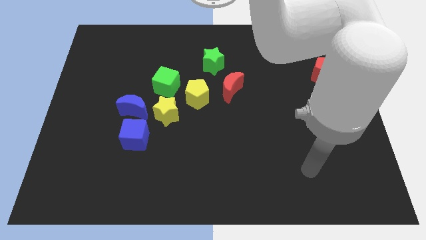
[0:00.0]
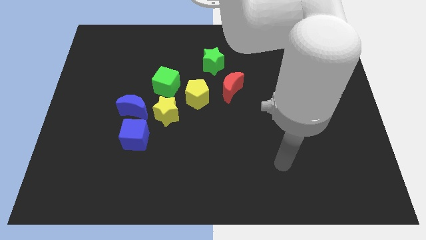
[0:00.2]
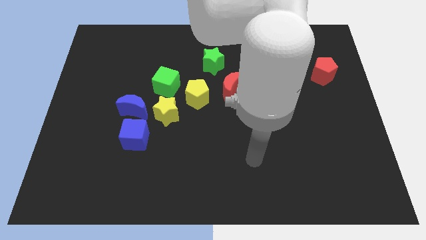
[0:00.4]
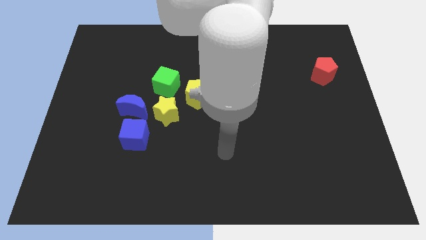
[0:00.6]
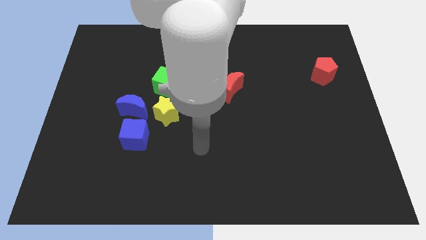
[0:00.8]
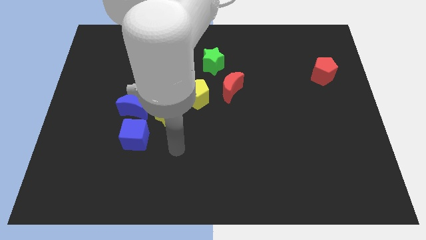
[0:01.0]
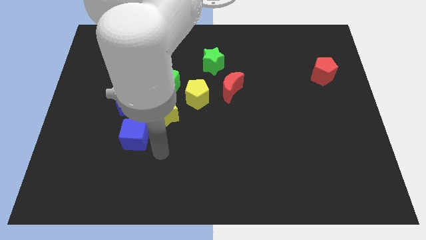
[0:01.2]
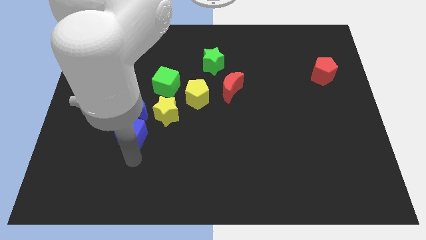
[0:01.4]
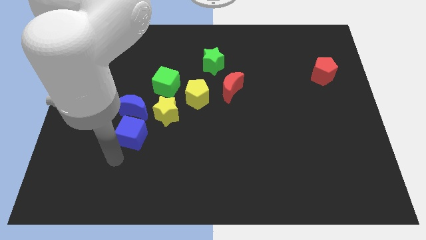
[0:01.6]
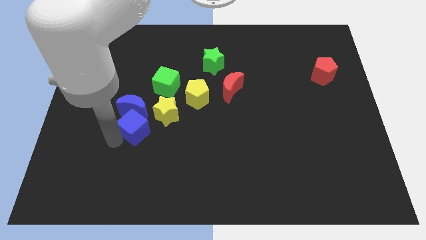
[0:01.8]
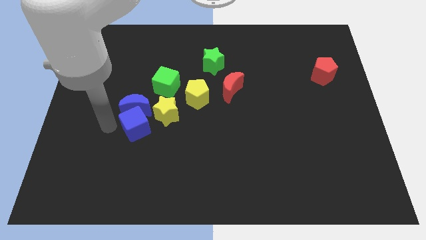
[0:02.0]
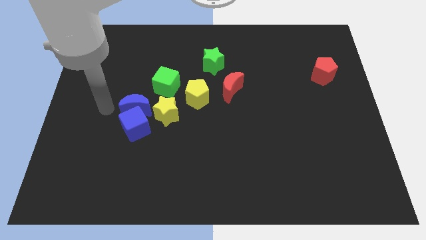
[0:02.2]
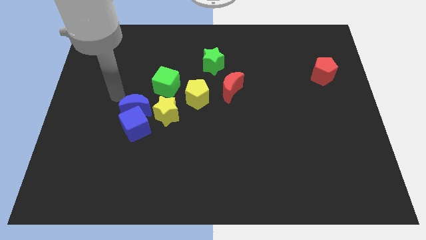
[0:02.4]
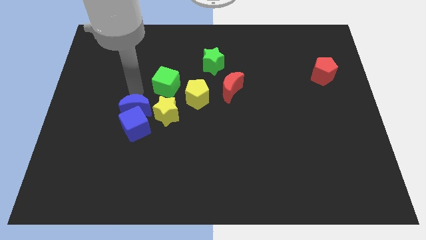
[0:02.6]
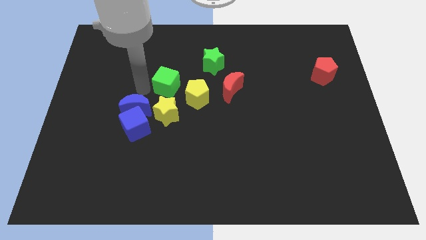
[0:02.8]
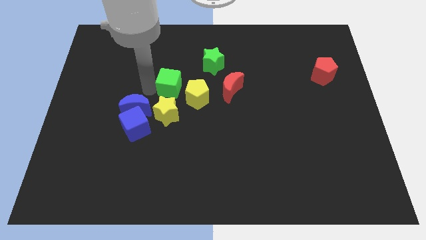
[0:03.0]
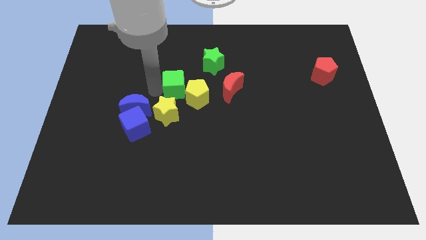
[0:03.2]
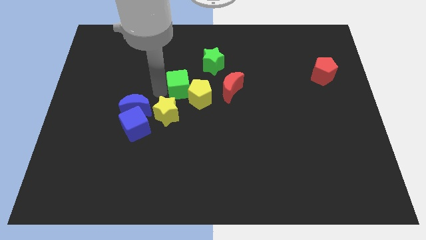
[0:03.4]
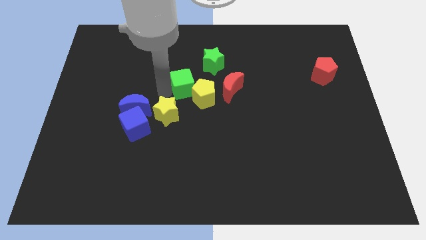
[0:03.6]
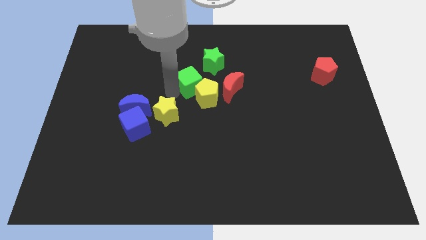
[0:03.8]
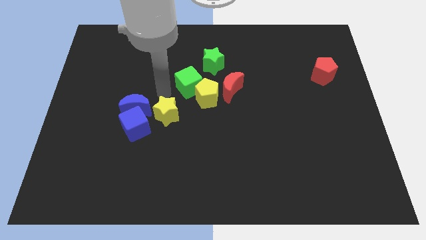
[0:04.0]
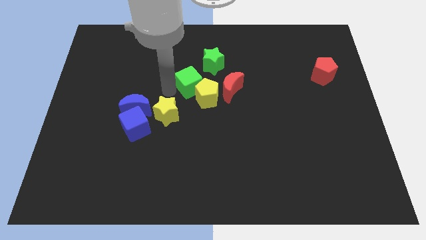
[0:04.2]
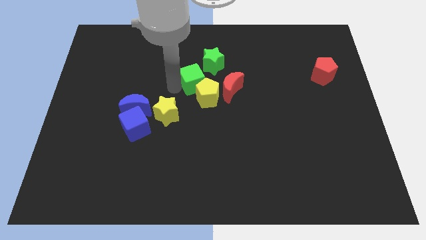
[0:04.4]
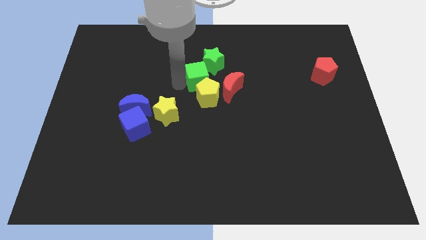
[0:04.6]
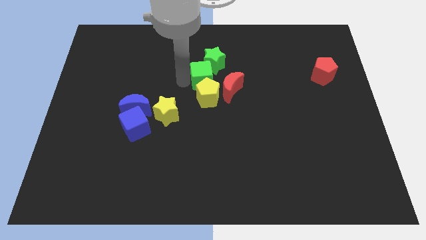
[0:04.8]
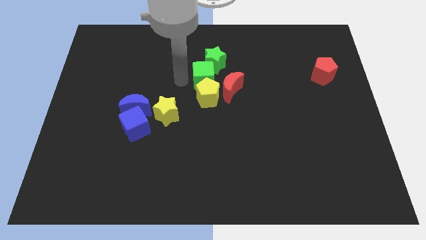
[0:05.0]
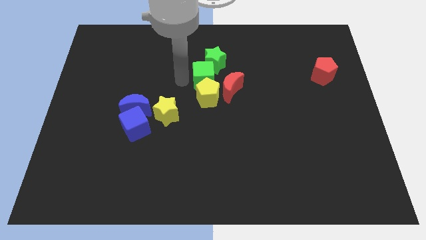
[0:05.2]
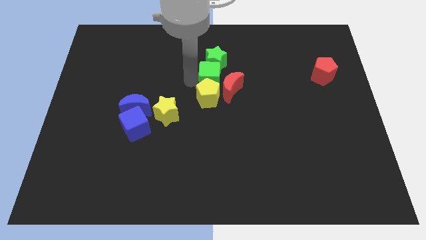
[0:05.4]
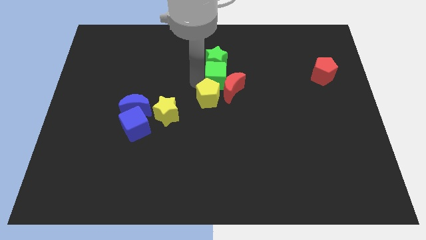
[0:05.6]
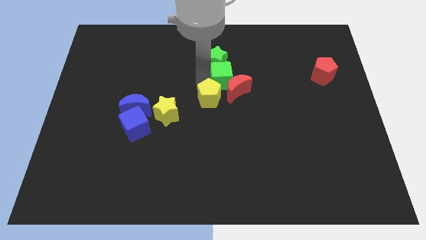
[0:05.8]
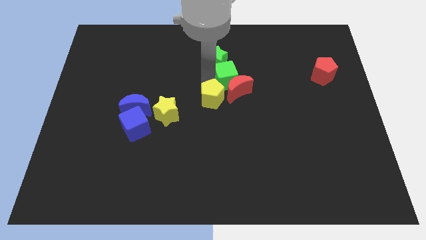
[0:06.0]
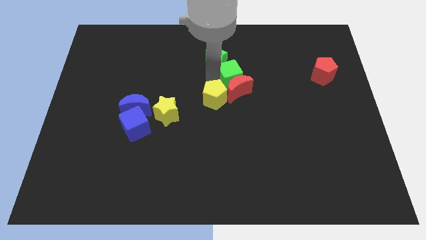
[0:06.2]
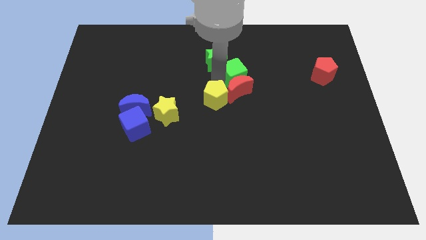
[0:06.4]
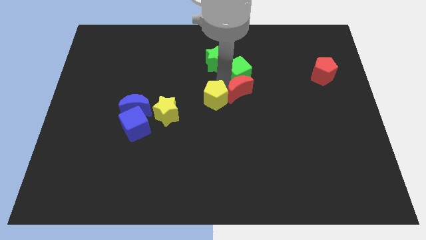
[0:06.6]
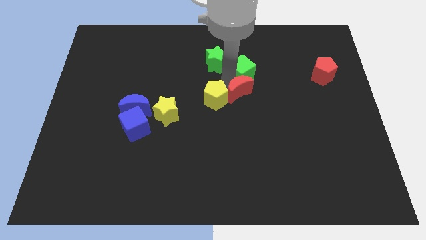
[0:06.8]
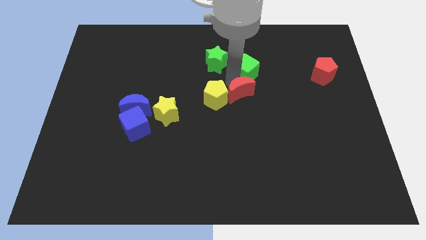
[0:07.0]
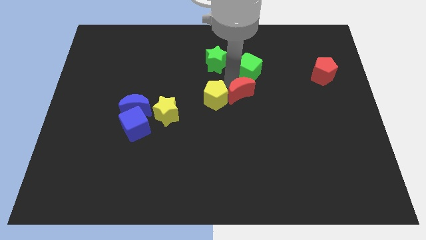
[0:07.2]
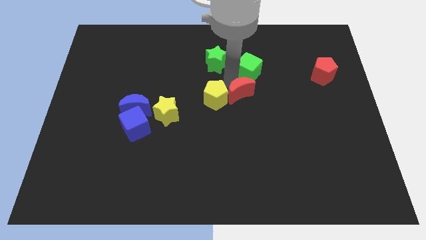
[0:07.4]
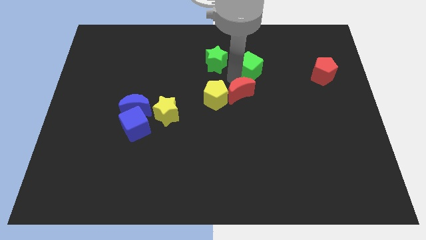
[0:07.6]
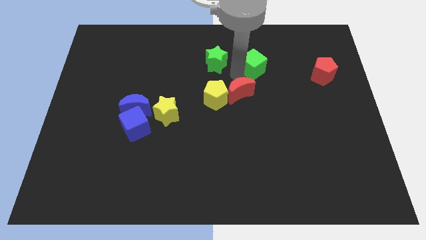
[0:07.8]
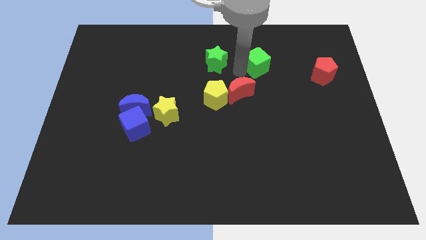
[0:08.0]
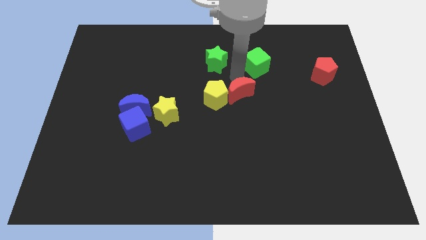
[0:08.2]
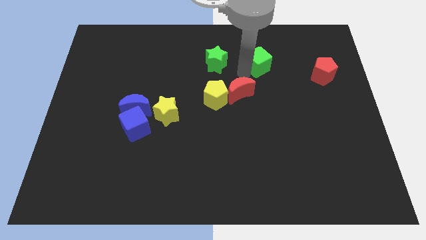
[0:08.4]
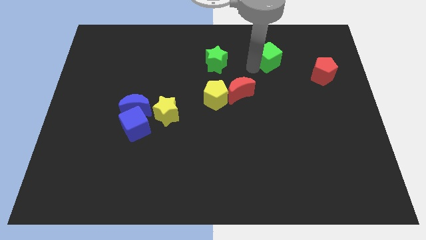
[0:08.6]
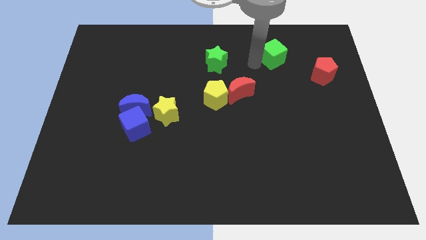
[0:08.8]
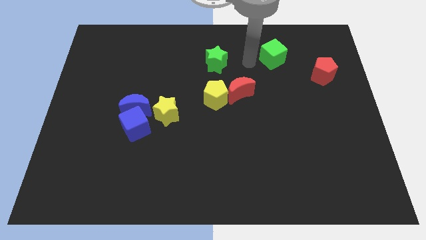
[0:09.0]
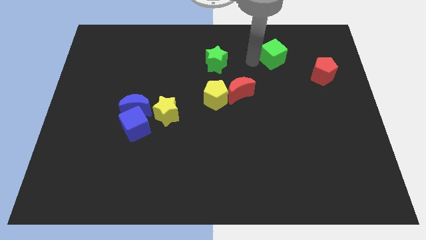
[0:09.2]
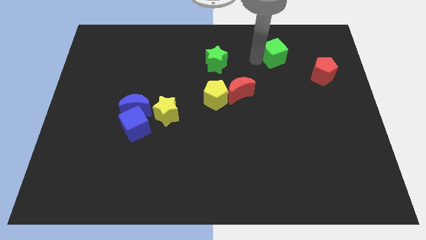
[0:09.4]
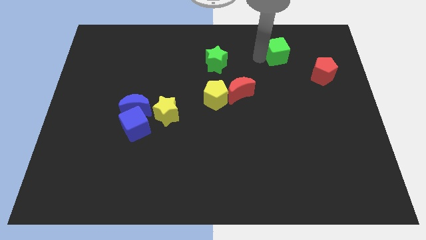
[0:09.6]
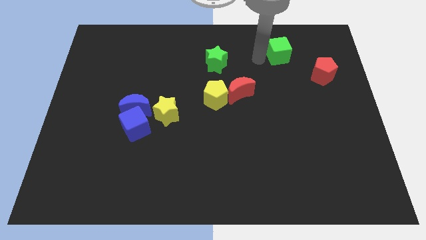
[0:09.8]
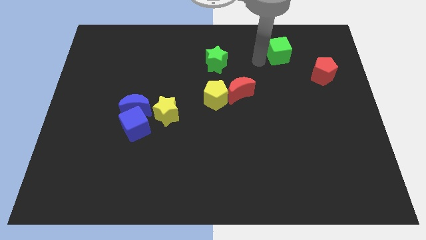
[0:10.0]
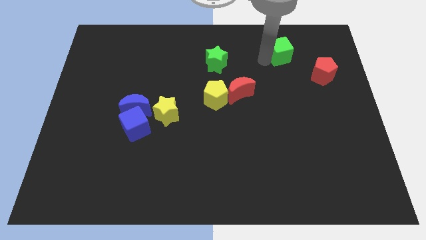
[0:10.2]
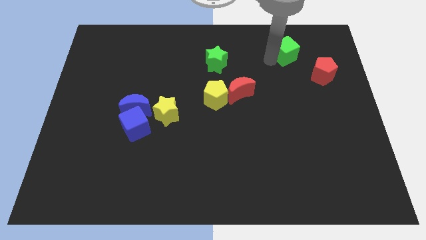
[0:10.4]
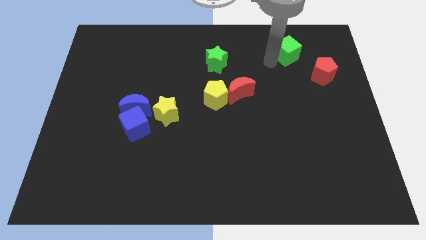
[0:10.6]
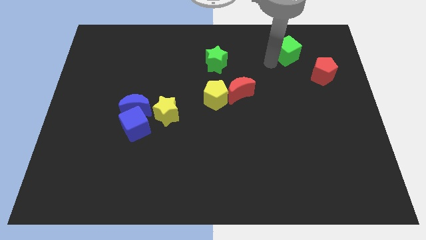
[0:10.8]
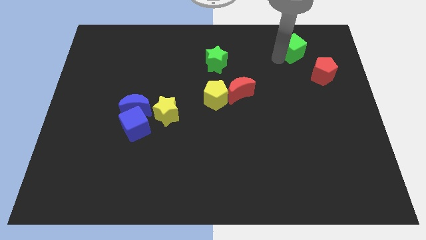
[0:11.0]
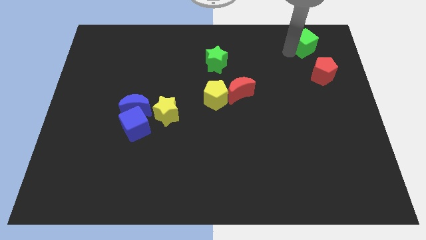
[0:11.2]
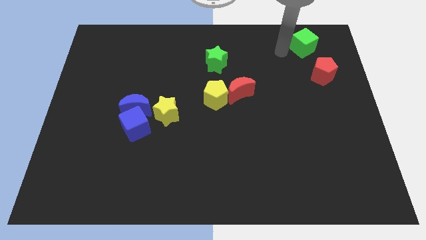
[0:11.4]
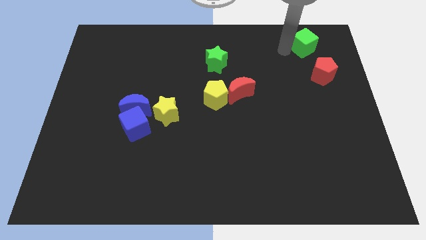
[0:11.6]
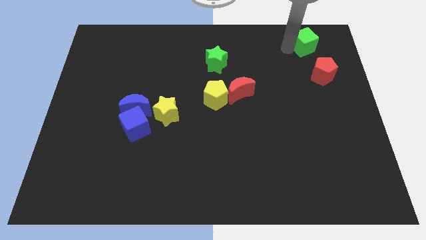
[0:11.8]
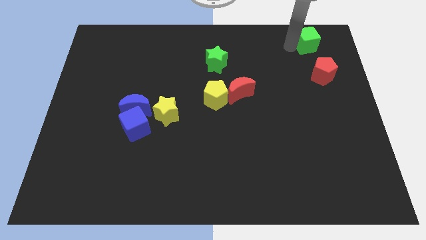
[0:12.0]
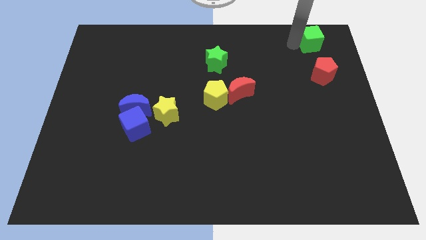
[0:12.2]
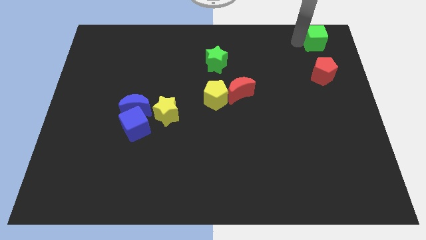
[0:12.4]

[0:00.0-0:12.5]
move the green cube to the top right of the board
